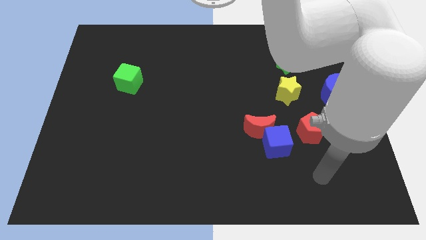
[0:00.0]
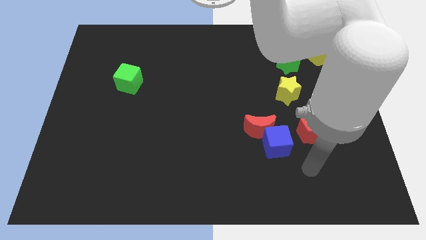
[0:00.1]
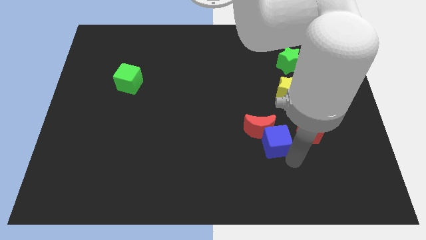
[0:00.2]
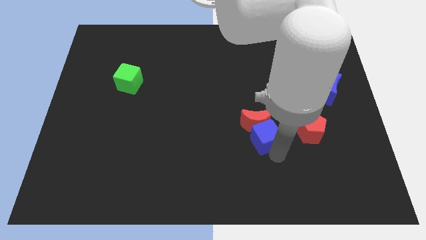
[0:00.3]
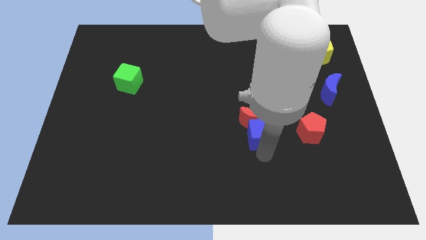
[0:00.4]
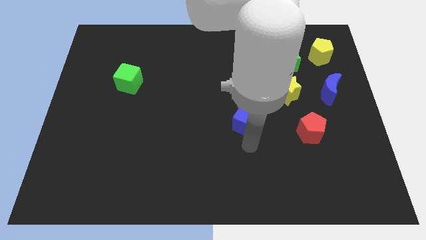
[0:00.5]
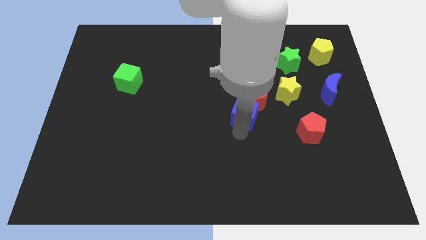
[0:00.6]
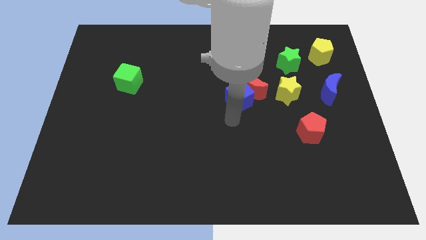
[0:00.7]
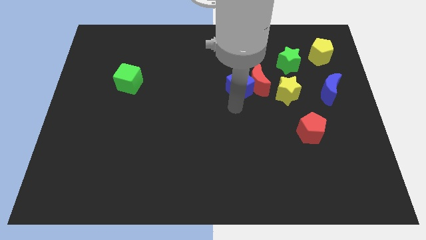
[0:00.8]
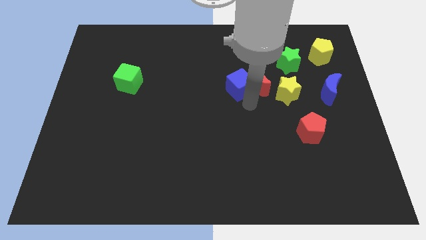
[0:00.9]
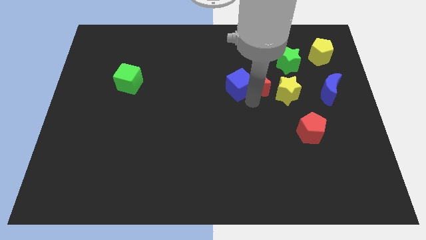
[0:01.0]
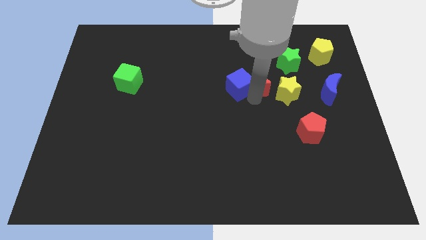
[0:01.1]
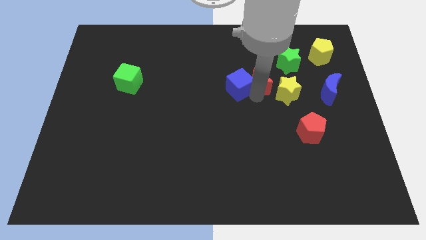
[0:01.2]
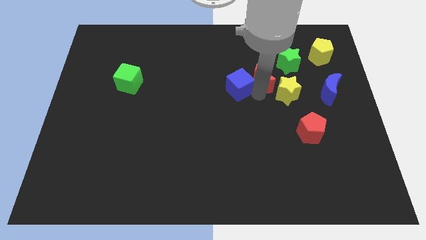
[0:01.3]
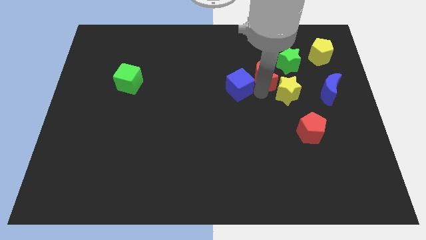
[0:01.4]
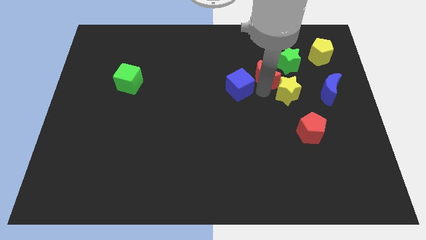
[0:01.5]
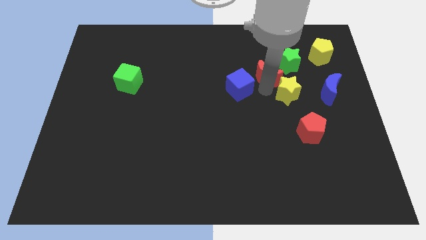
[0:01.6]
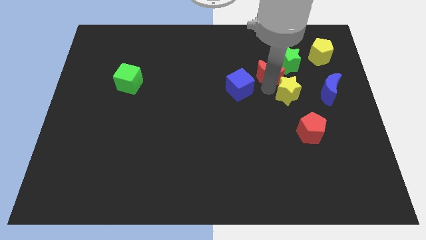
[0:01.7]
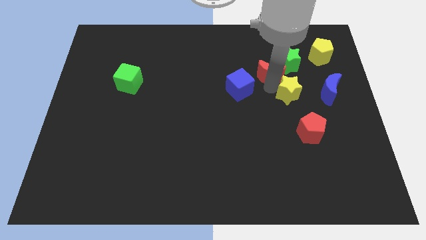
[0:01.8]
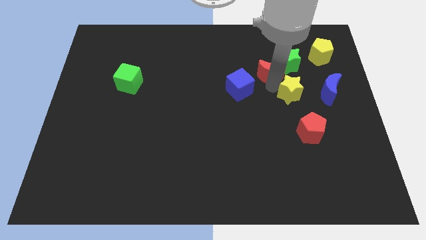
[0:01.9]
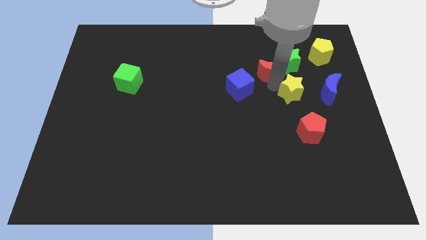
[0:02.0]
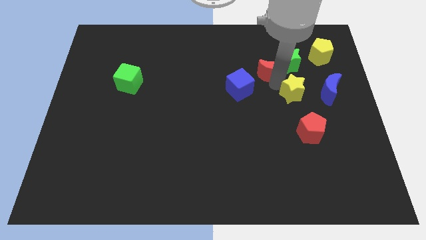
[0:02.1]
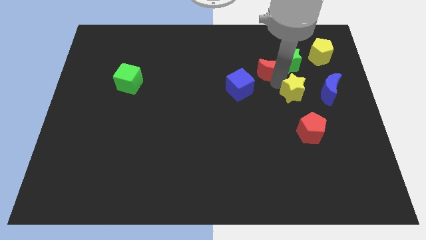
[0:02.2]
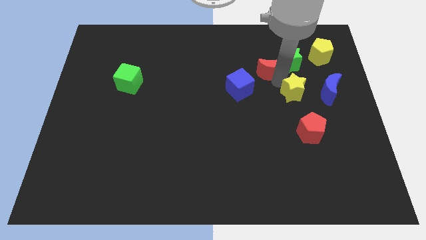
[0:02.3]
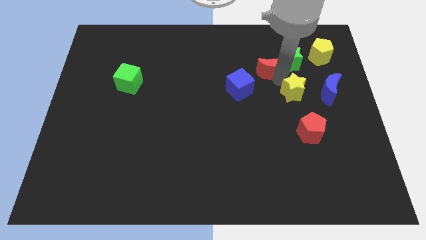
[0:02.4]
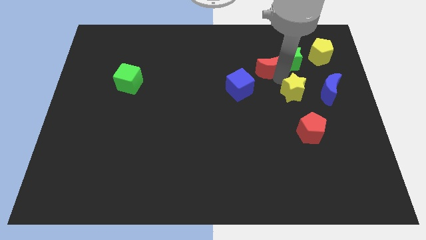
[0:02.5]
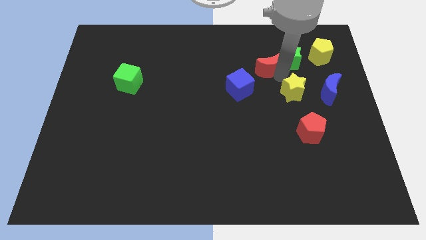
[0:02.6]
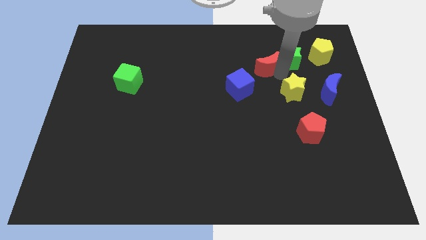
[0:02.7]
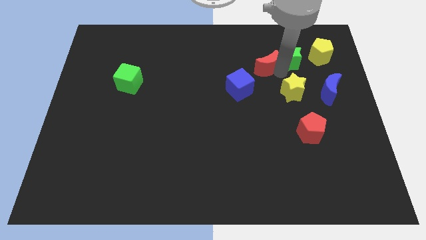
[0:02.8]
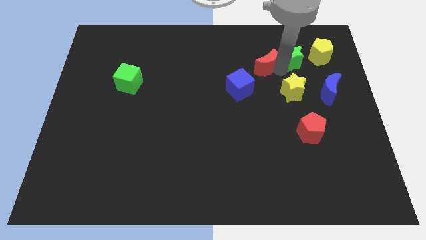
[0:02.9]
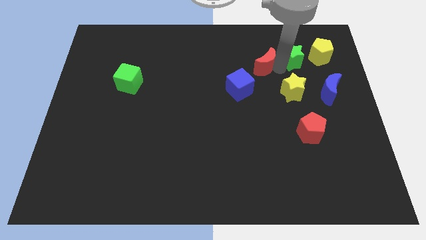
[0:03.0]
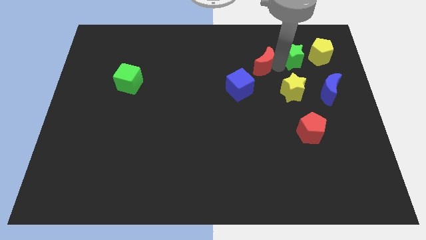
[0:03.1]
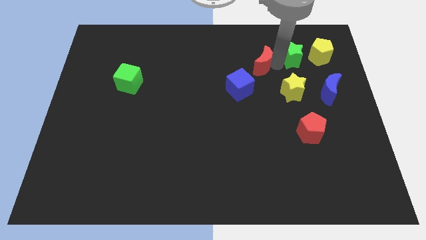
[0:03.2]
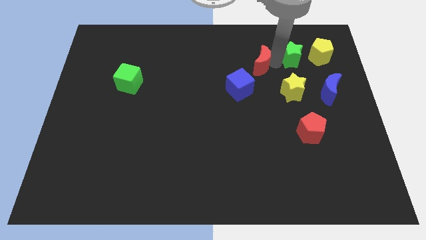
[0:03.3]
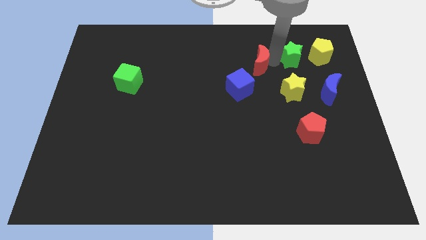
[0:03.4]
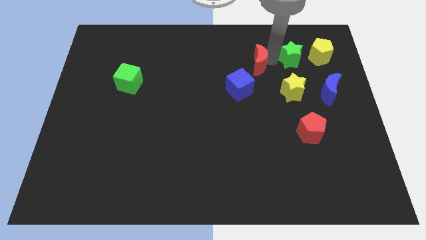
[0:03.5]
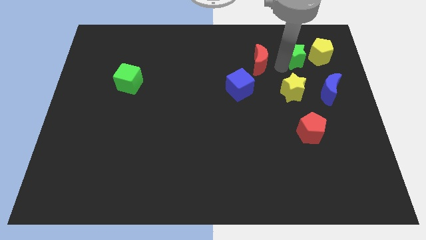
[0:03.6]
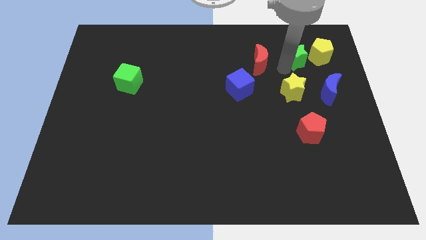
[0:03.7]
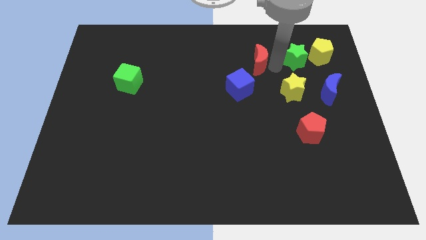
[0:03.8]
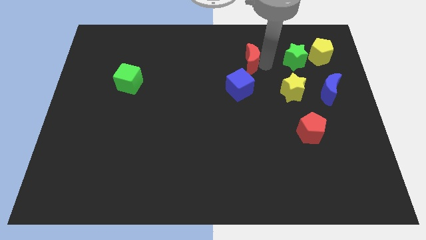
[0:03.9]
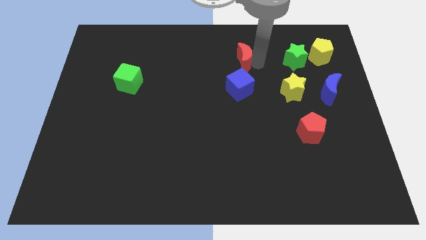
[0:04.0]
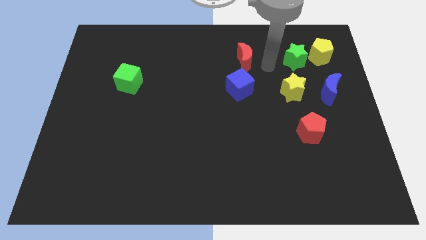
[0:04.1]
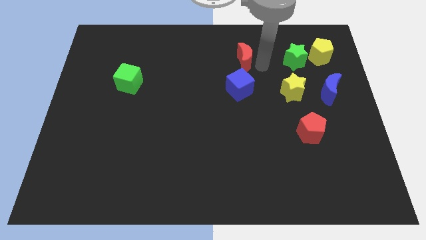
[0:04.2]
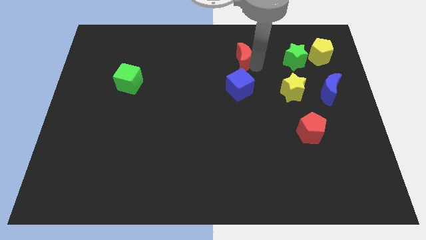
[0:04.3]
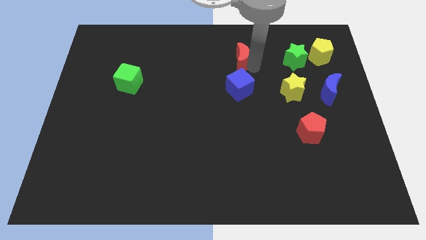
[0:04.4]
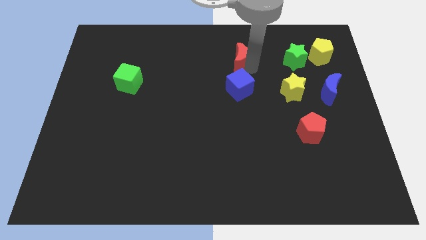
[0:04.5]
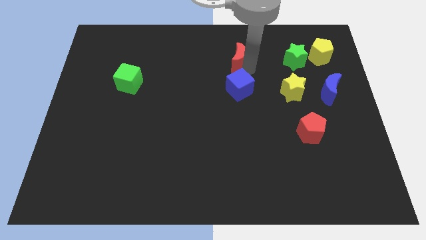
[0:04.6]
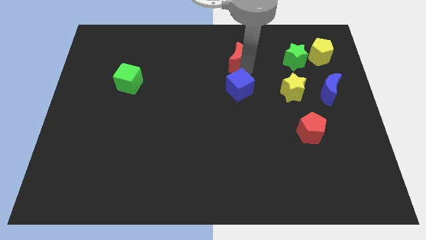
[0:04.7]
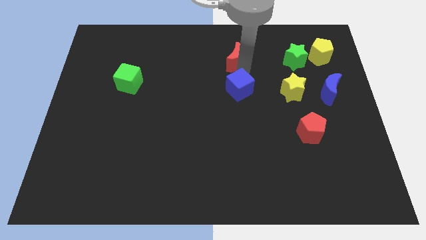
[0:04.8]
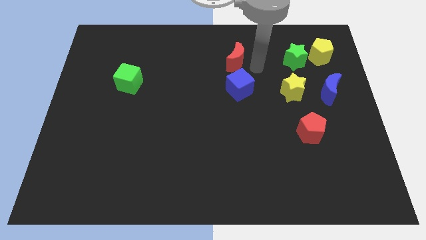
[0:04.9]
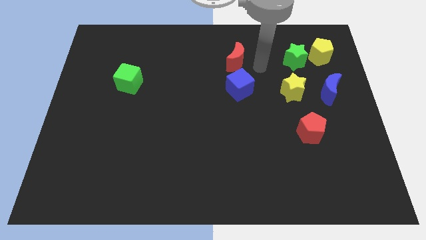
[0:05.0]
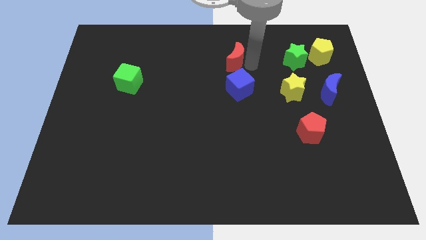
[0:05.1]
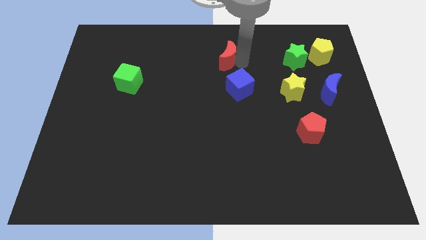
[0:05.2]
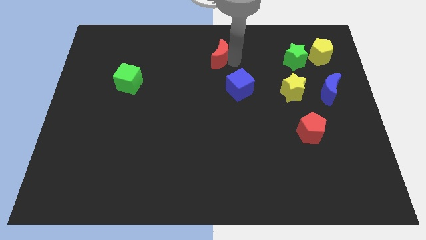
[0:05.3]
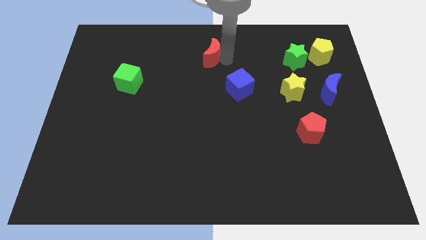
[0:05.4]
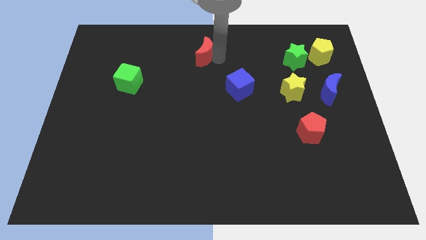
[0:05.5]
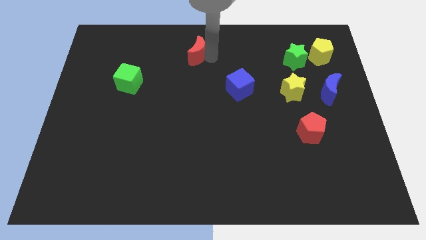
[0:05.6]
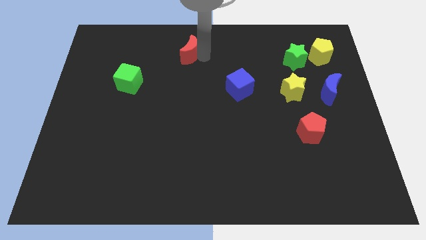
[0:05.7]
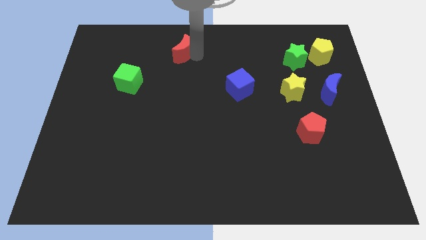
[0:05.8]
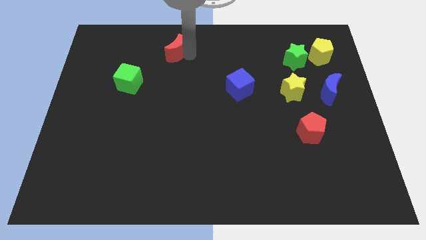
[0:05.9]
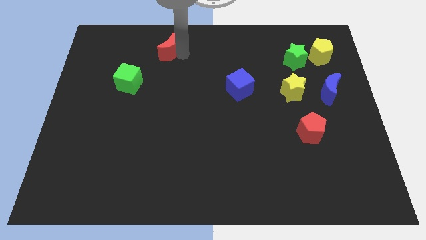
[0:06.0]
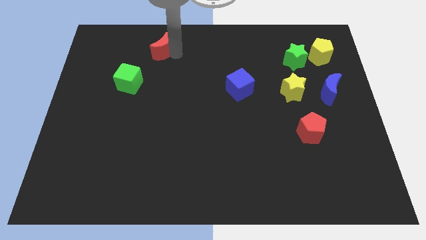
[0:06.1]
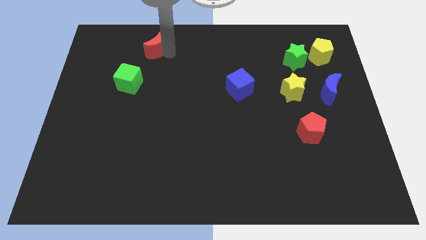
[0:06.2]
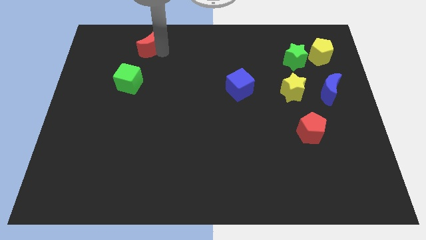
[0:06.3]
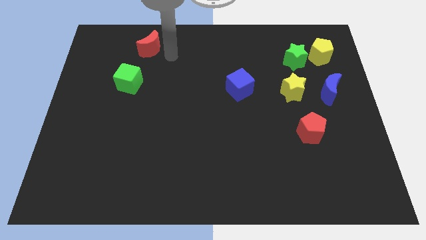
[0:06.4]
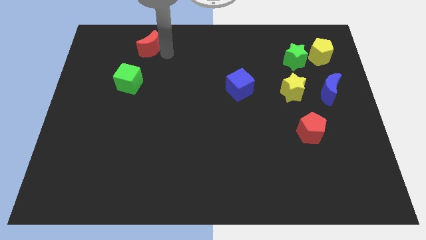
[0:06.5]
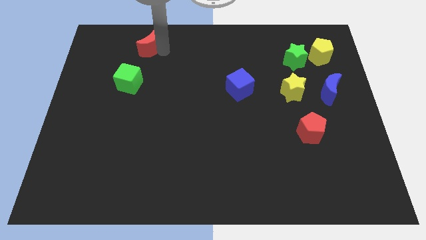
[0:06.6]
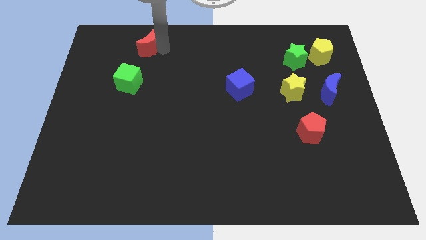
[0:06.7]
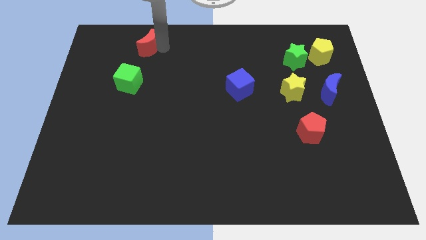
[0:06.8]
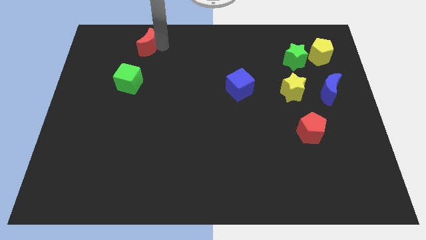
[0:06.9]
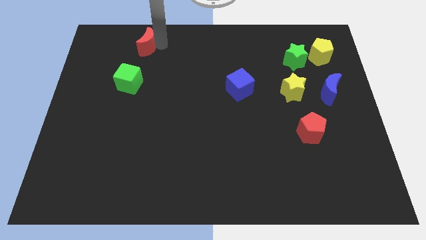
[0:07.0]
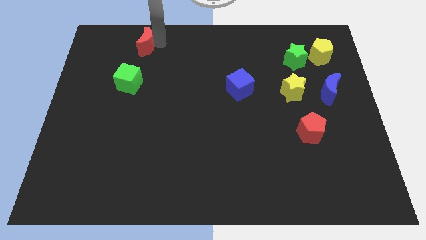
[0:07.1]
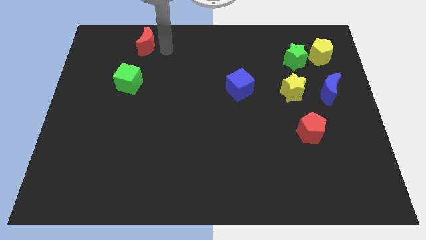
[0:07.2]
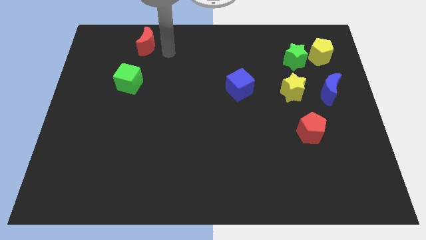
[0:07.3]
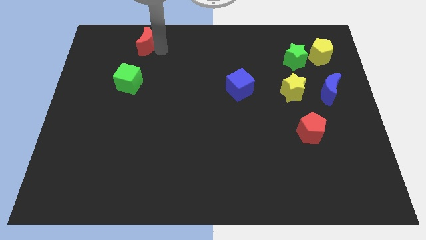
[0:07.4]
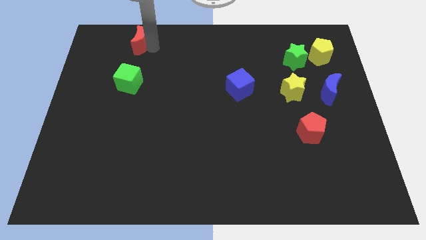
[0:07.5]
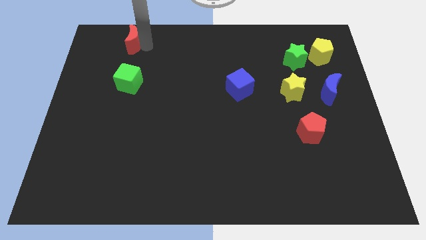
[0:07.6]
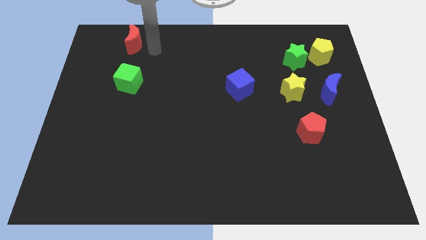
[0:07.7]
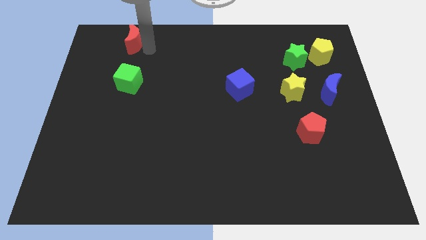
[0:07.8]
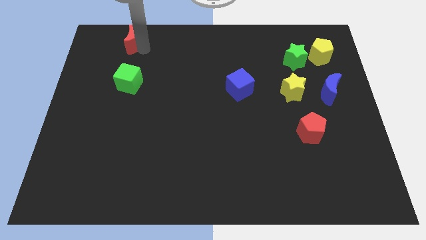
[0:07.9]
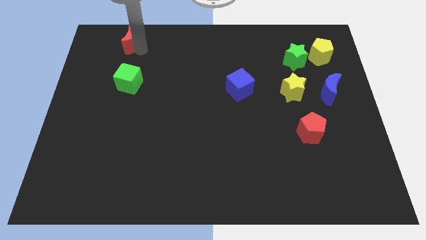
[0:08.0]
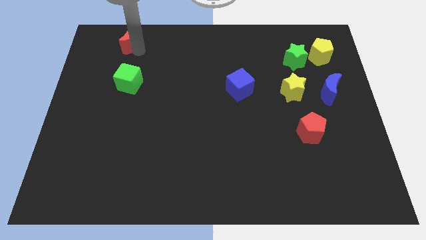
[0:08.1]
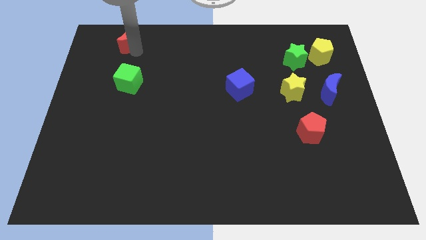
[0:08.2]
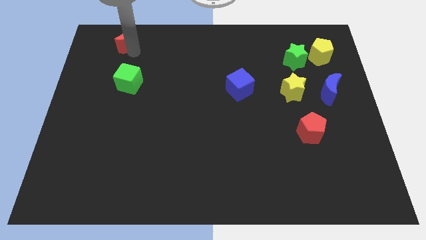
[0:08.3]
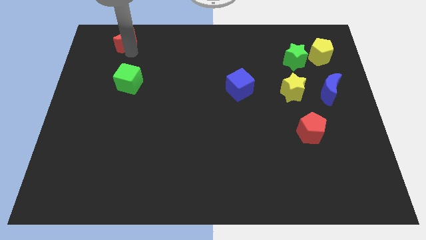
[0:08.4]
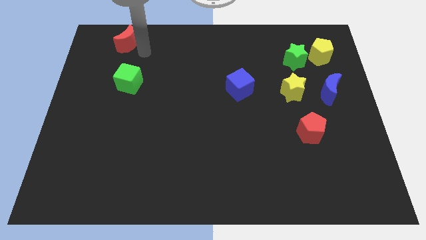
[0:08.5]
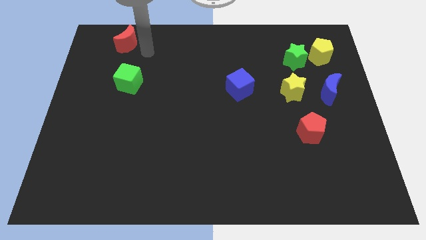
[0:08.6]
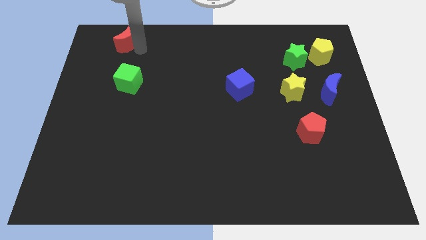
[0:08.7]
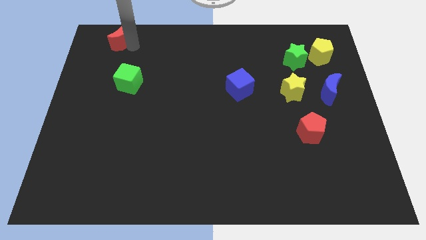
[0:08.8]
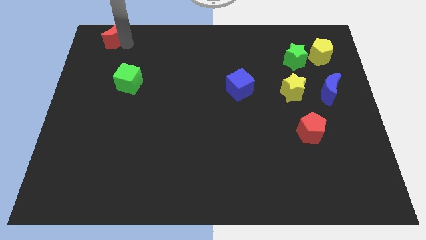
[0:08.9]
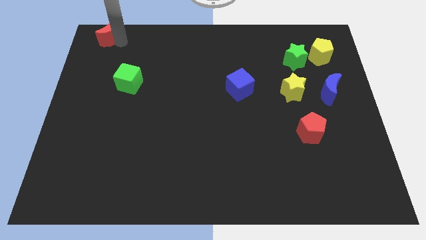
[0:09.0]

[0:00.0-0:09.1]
push the red moon to the top left of the board
